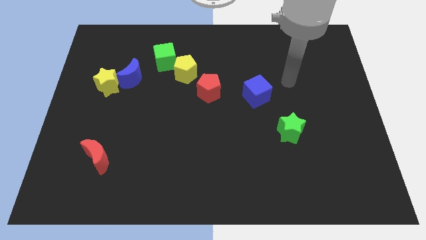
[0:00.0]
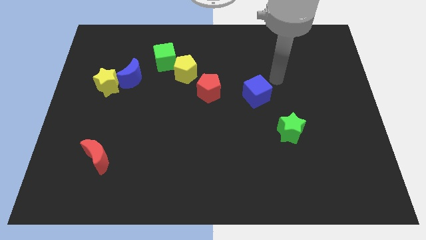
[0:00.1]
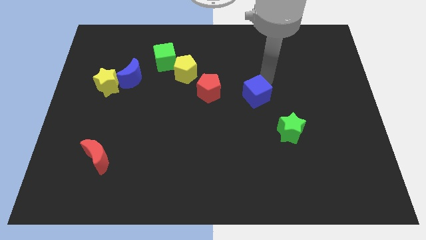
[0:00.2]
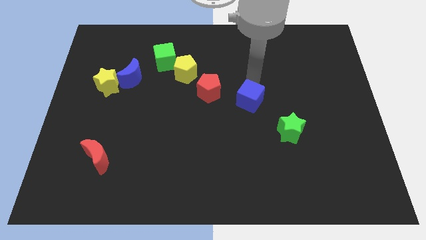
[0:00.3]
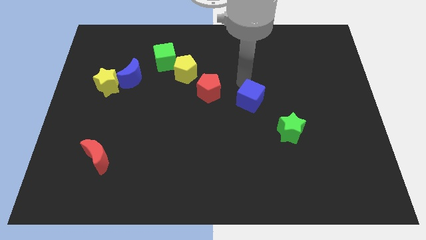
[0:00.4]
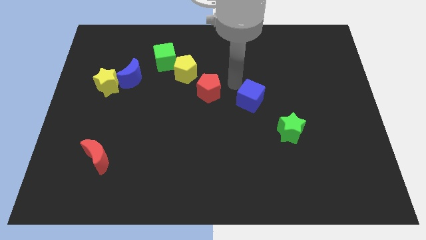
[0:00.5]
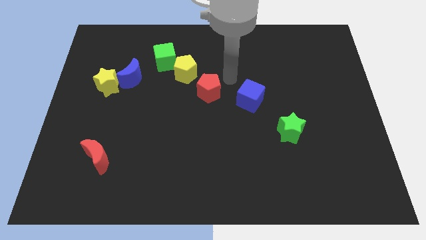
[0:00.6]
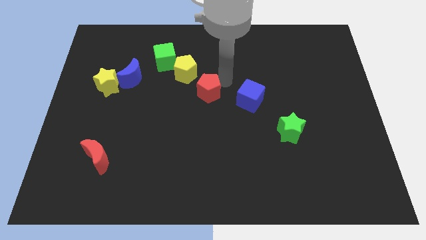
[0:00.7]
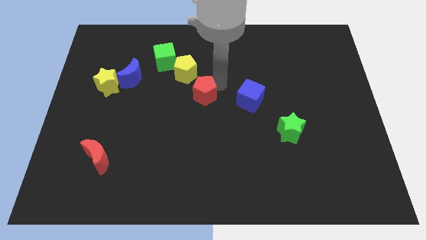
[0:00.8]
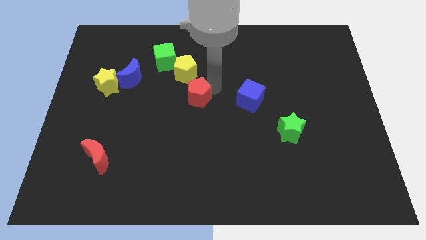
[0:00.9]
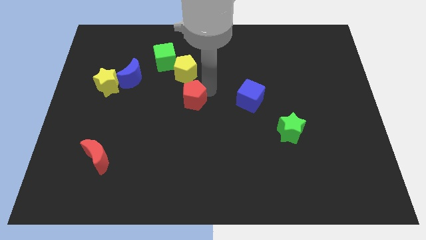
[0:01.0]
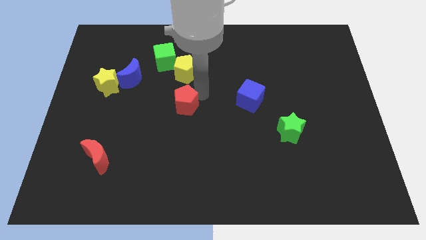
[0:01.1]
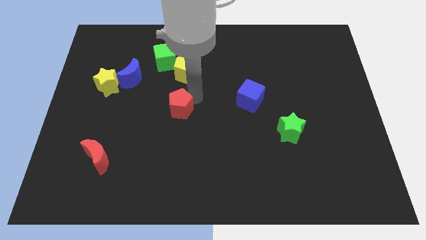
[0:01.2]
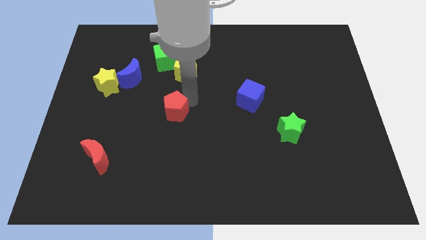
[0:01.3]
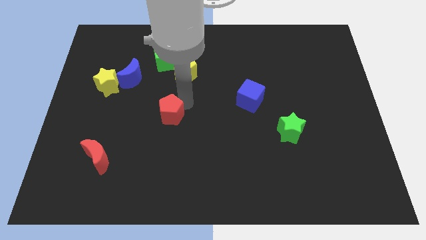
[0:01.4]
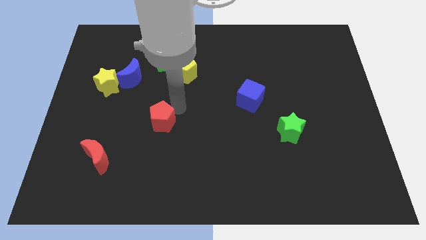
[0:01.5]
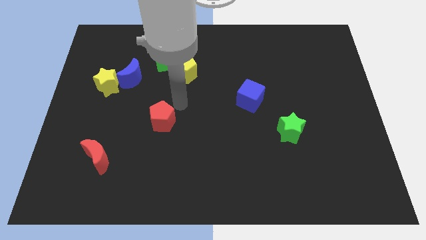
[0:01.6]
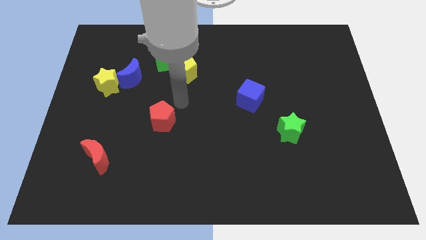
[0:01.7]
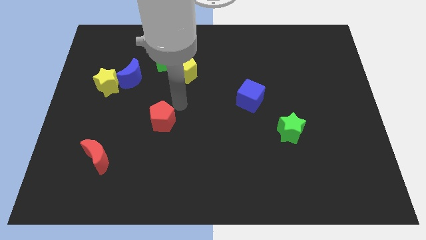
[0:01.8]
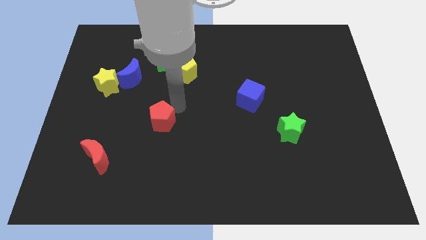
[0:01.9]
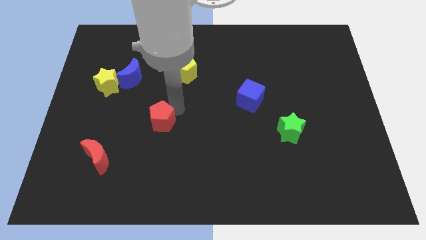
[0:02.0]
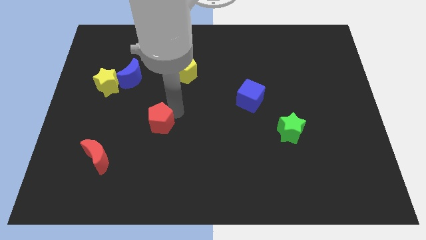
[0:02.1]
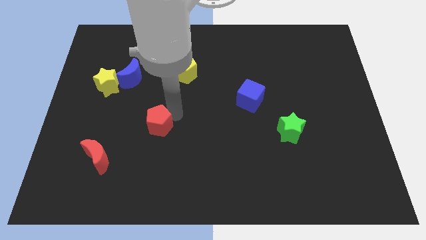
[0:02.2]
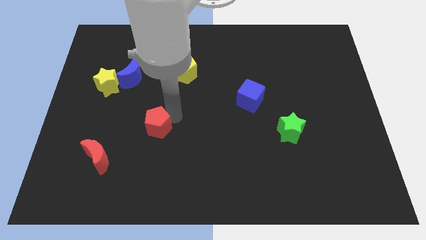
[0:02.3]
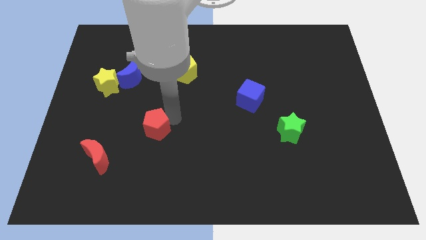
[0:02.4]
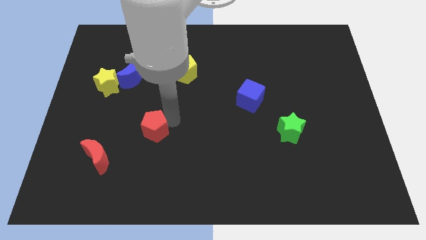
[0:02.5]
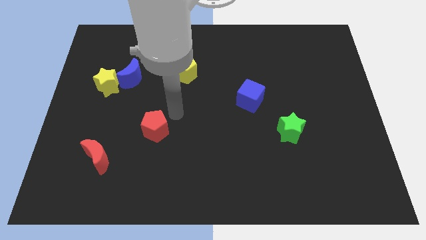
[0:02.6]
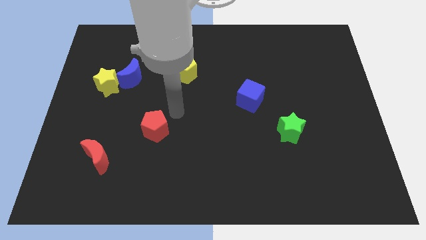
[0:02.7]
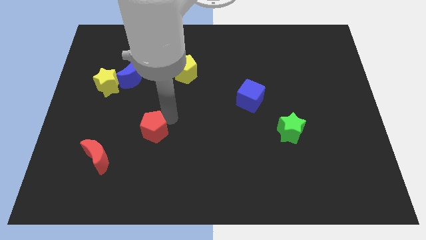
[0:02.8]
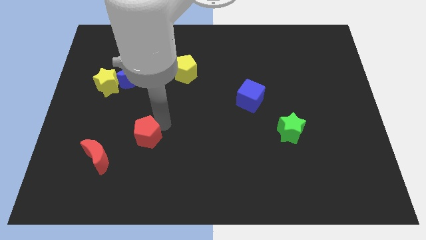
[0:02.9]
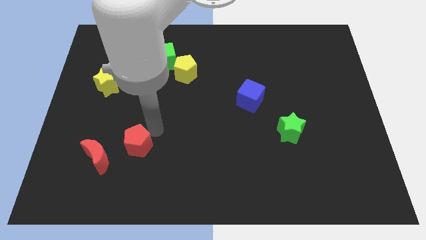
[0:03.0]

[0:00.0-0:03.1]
slide the red pentagon downwards and then left

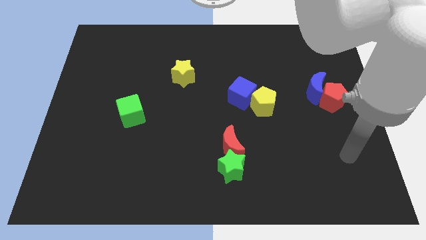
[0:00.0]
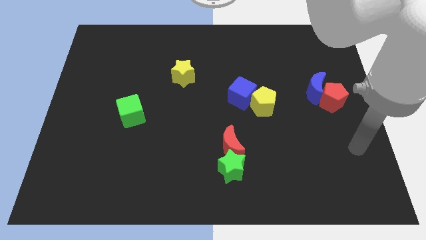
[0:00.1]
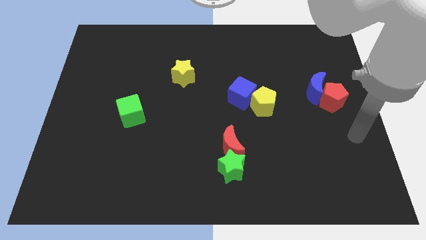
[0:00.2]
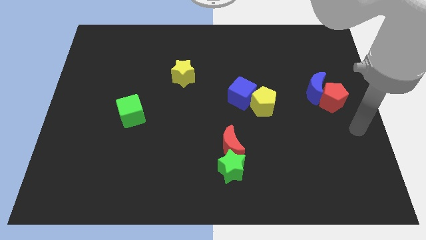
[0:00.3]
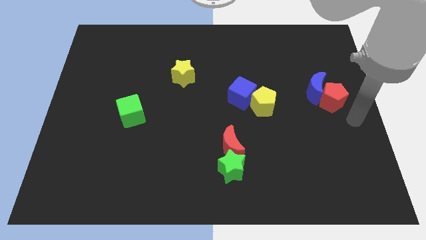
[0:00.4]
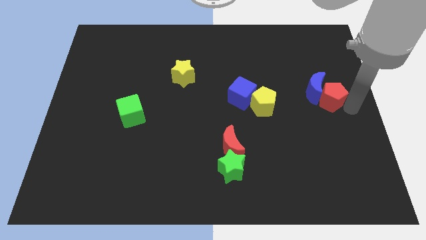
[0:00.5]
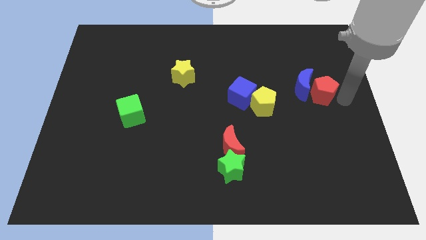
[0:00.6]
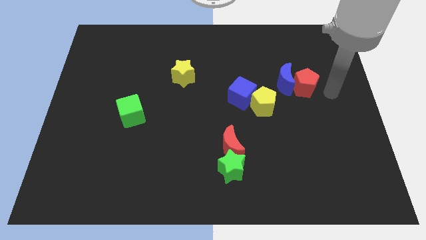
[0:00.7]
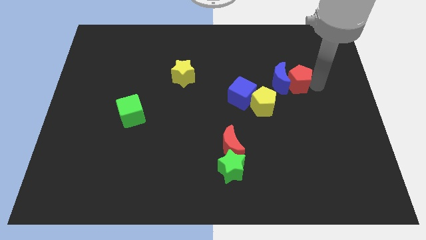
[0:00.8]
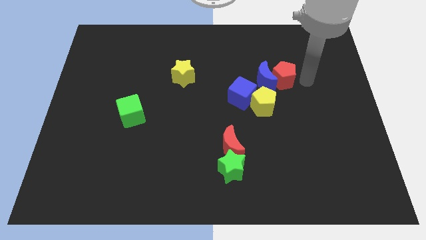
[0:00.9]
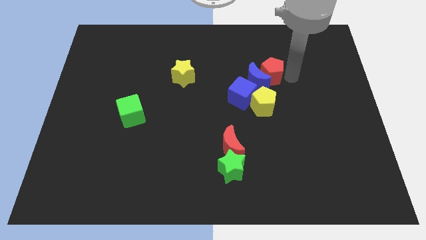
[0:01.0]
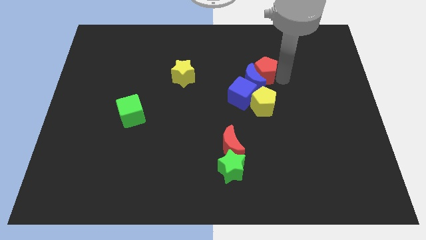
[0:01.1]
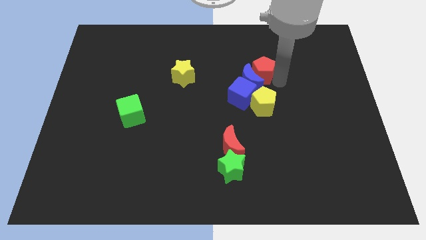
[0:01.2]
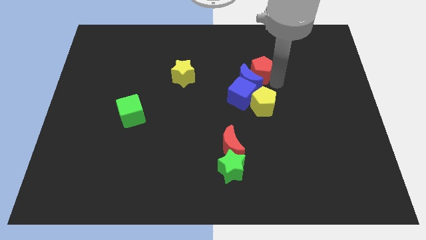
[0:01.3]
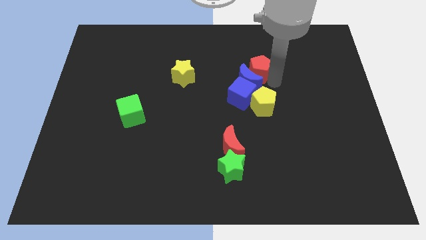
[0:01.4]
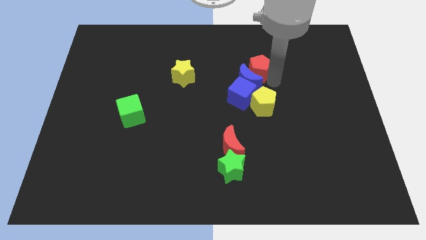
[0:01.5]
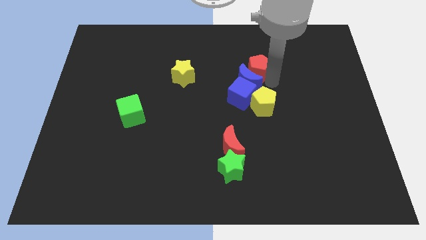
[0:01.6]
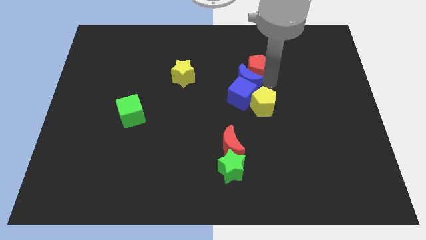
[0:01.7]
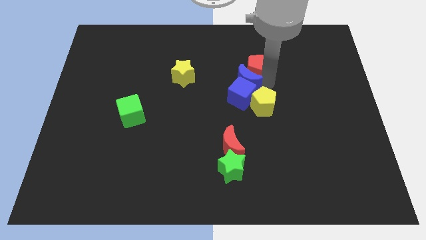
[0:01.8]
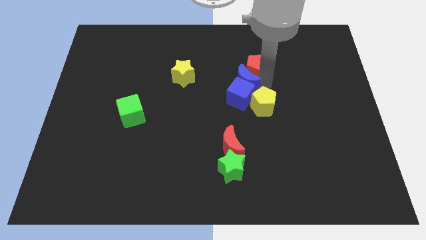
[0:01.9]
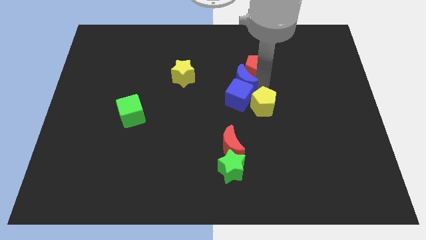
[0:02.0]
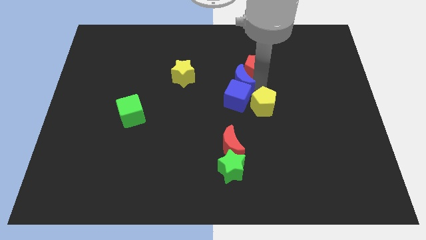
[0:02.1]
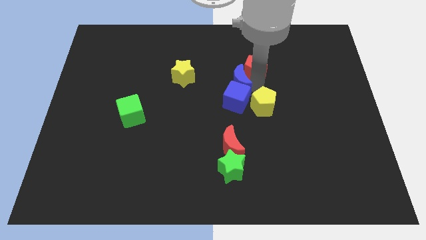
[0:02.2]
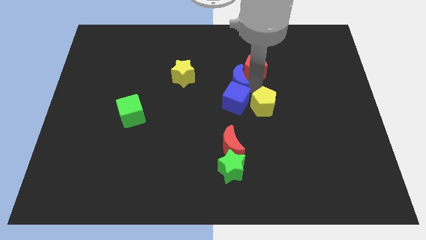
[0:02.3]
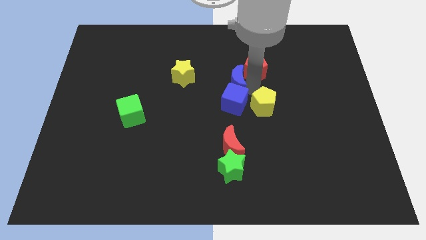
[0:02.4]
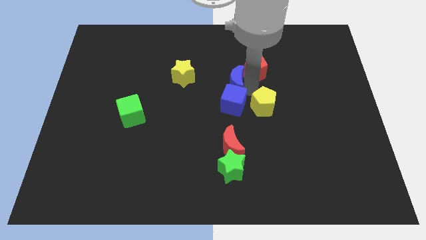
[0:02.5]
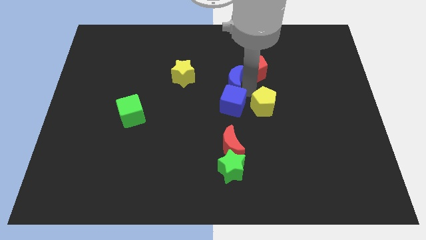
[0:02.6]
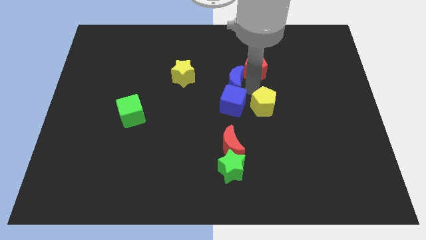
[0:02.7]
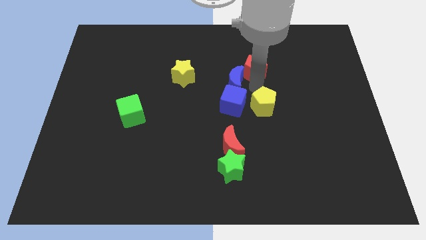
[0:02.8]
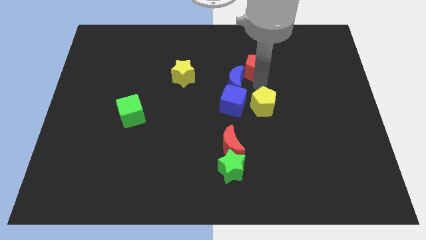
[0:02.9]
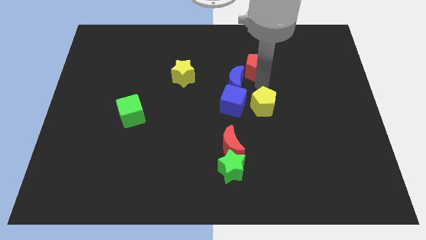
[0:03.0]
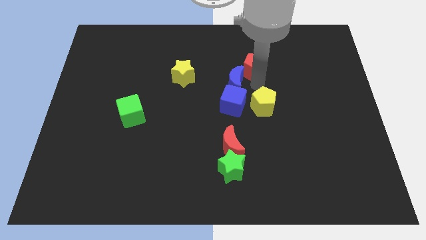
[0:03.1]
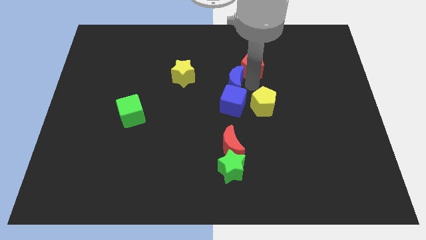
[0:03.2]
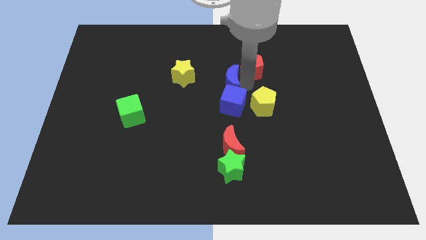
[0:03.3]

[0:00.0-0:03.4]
push the blue moon left

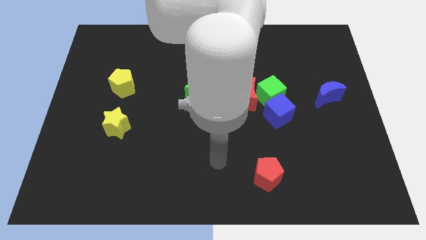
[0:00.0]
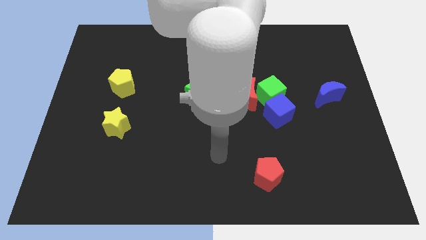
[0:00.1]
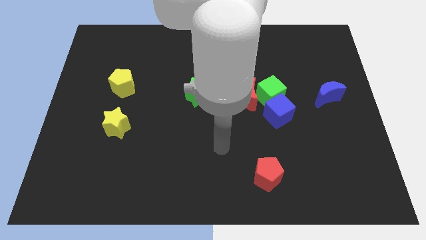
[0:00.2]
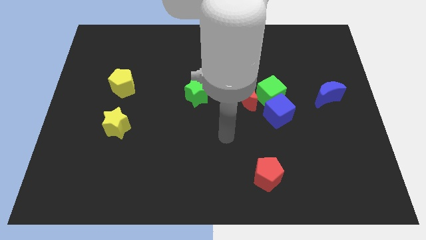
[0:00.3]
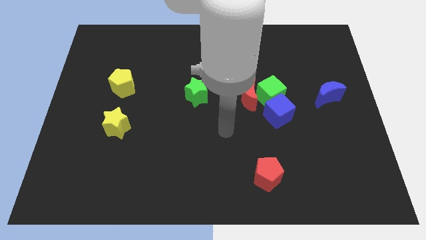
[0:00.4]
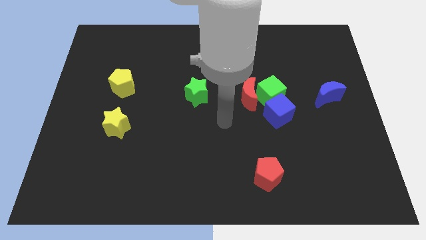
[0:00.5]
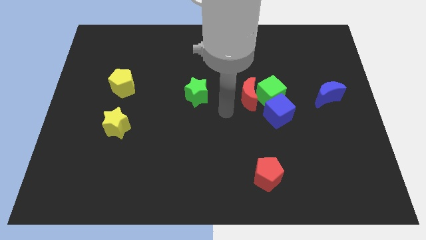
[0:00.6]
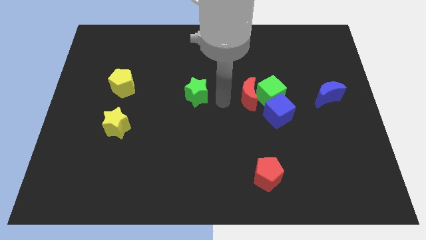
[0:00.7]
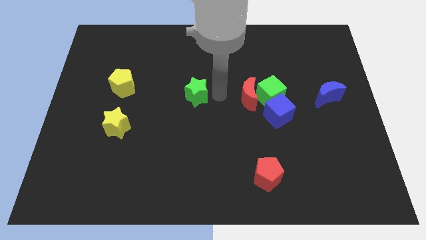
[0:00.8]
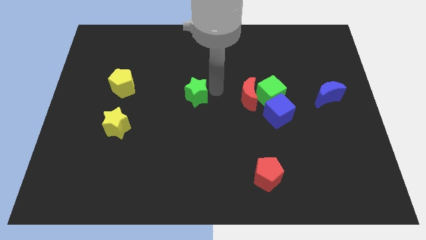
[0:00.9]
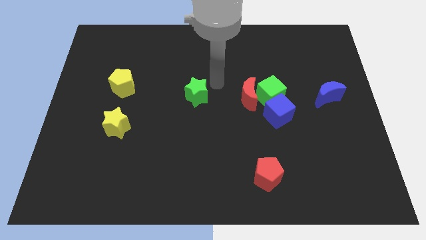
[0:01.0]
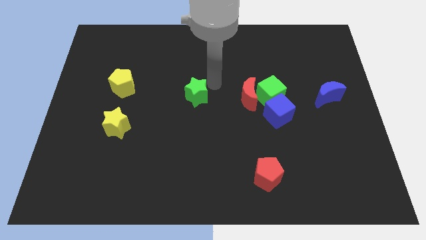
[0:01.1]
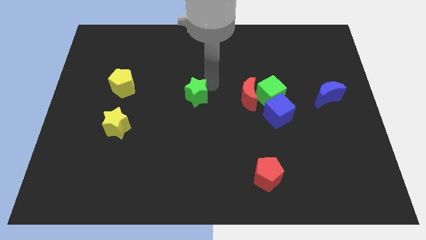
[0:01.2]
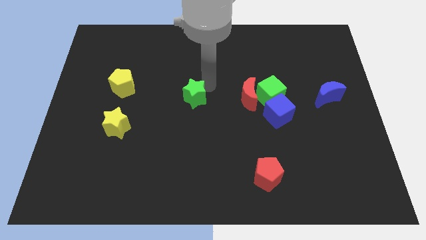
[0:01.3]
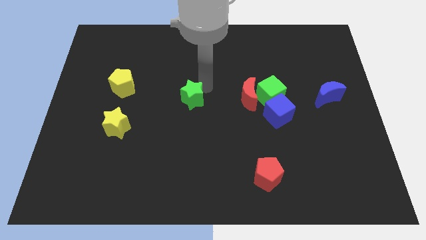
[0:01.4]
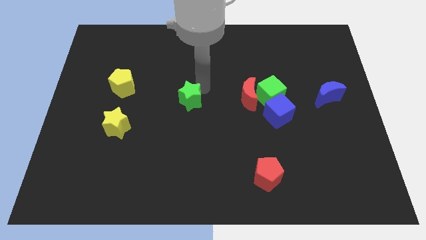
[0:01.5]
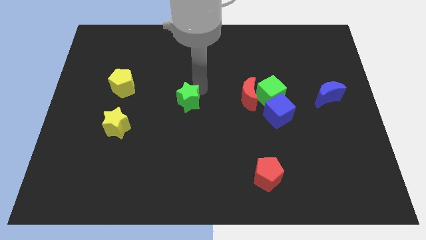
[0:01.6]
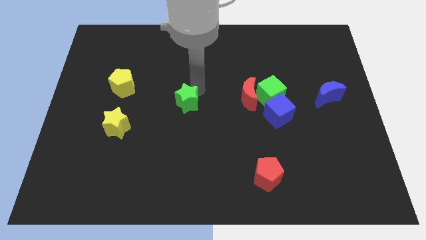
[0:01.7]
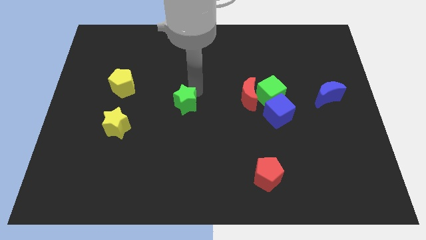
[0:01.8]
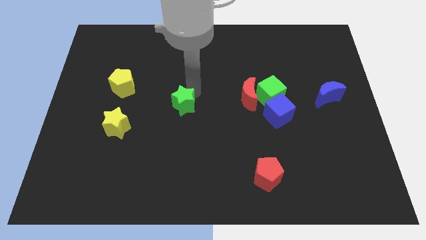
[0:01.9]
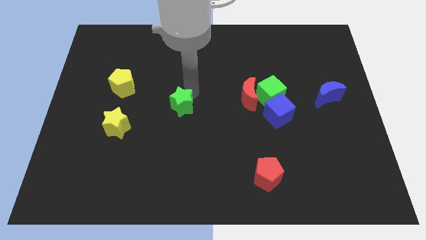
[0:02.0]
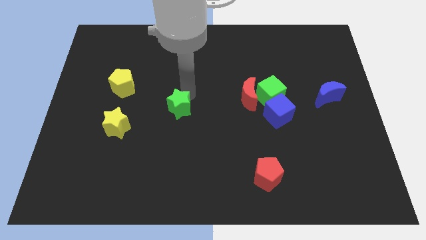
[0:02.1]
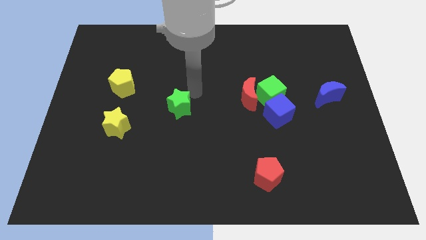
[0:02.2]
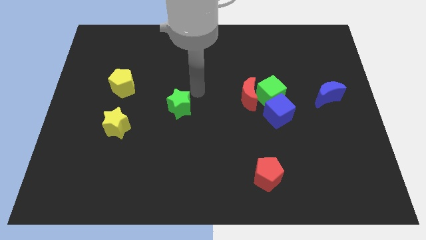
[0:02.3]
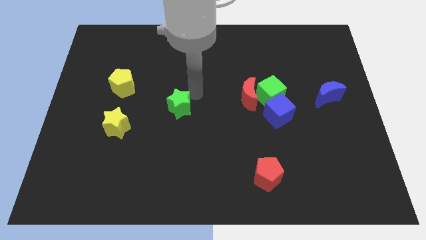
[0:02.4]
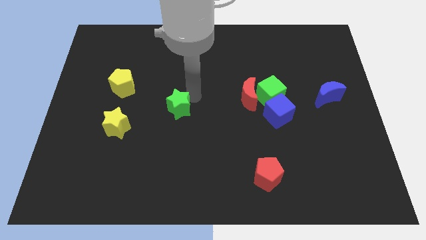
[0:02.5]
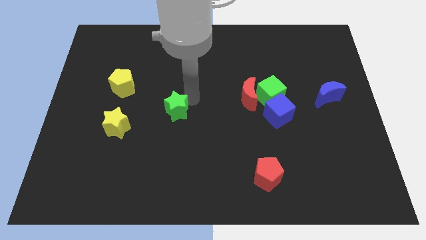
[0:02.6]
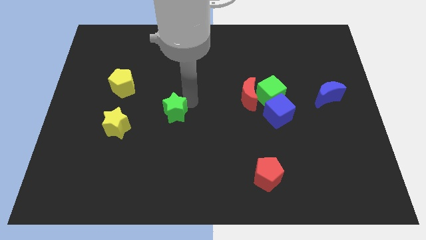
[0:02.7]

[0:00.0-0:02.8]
slide the green star a bit diagonally downwards and left
